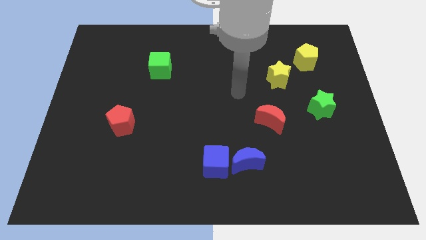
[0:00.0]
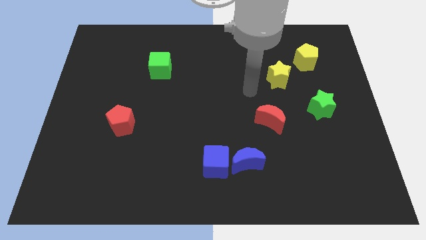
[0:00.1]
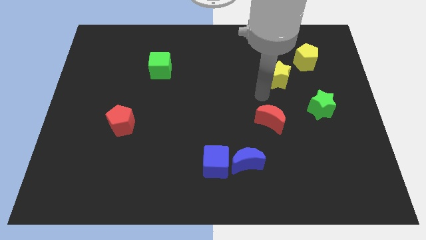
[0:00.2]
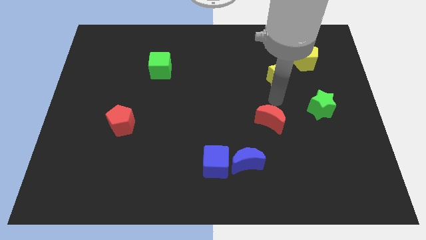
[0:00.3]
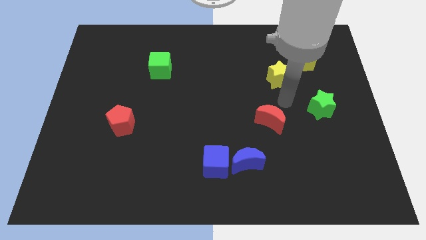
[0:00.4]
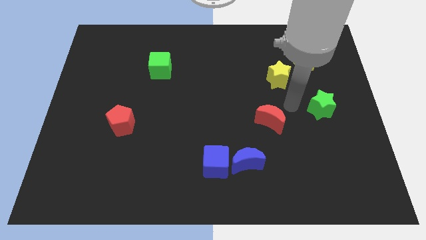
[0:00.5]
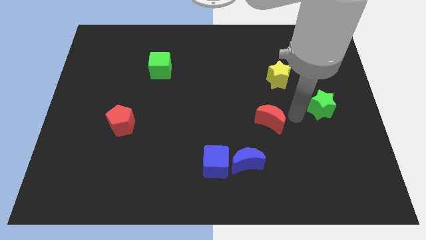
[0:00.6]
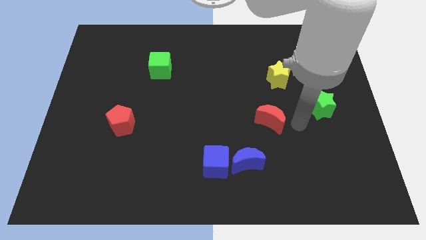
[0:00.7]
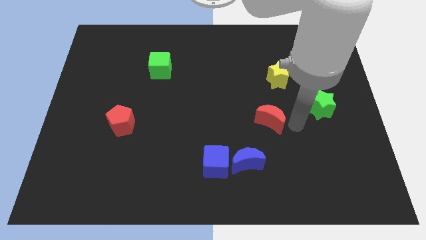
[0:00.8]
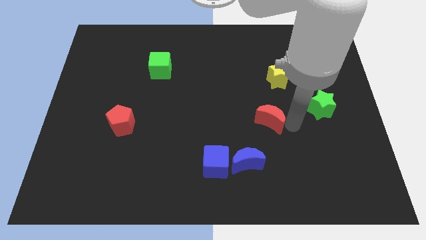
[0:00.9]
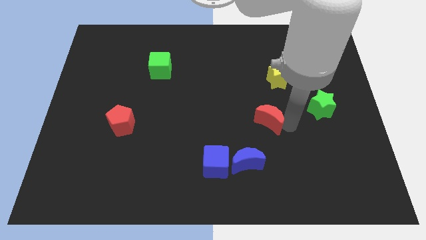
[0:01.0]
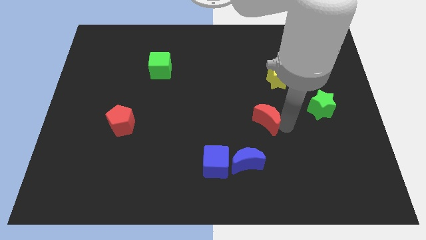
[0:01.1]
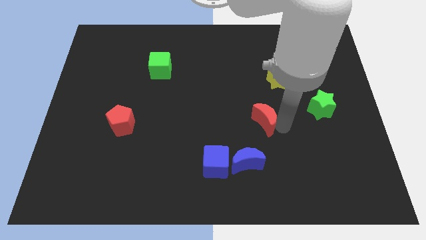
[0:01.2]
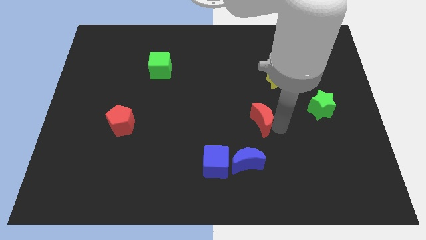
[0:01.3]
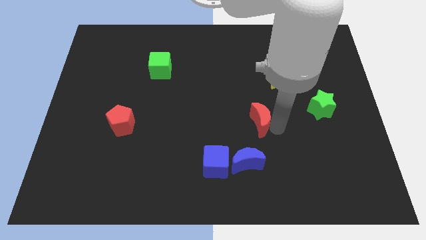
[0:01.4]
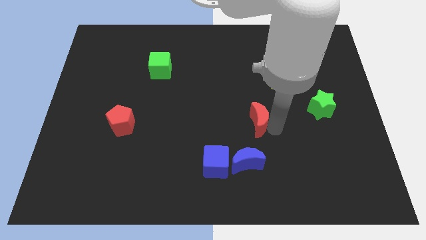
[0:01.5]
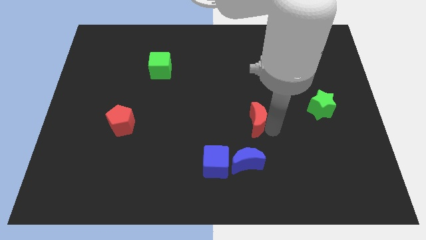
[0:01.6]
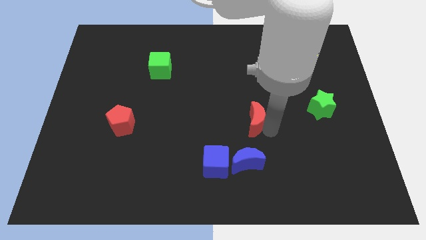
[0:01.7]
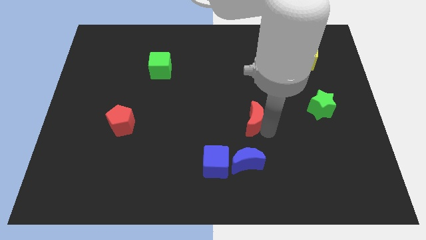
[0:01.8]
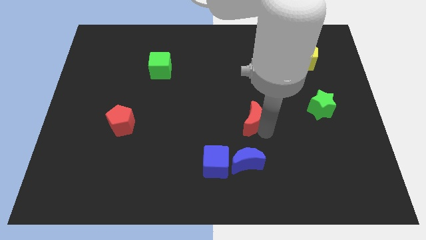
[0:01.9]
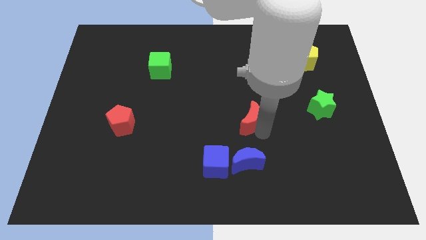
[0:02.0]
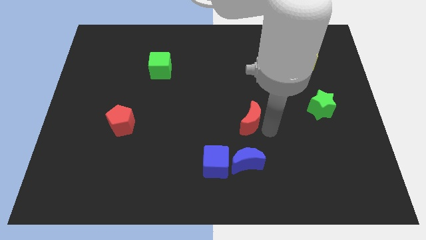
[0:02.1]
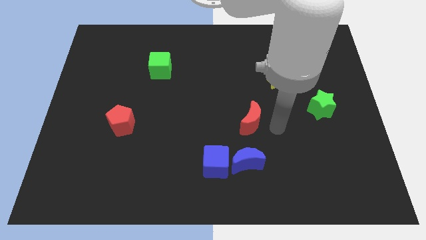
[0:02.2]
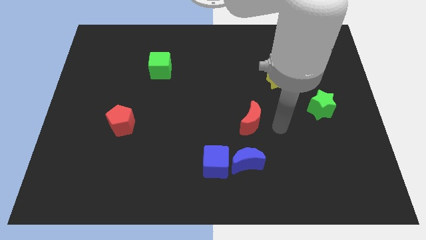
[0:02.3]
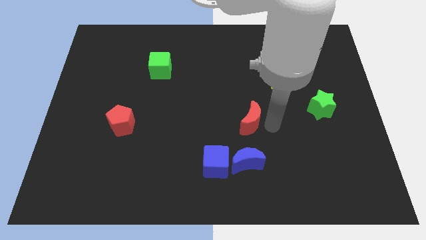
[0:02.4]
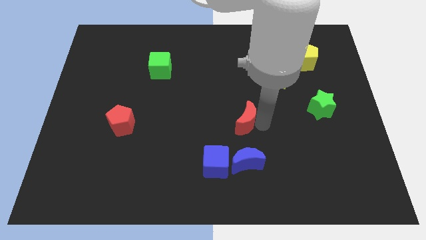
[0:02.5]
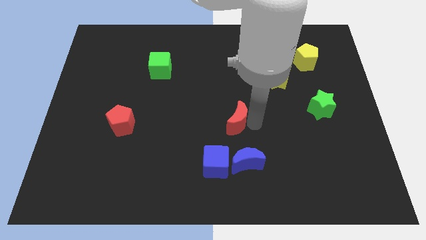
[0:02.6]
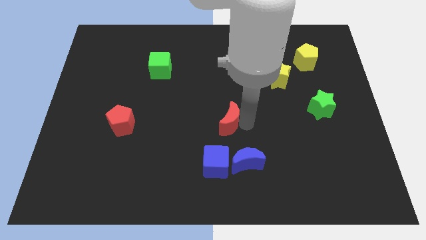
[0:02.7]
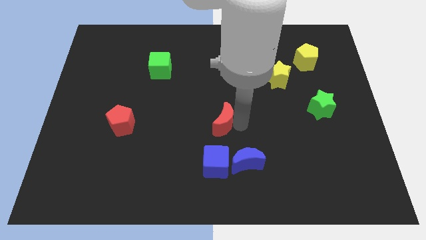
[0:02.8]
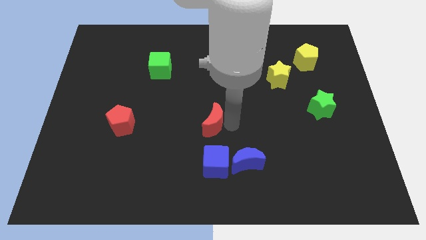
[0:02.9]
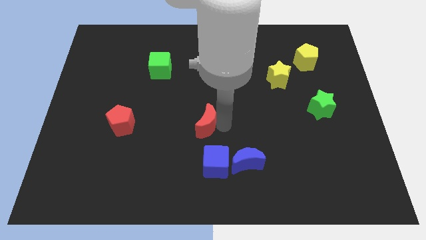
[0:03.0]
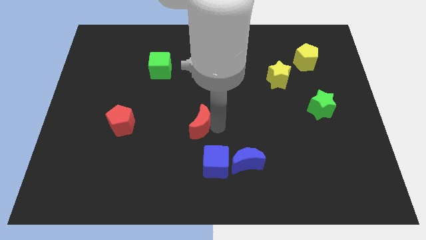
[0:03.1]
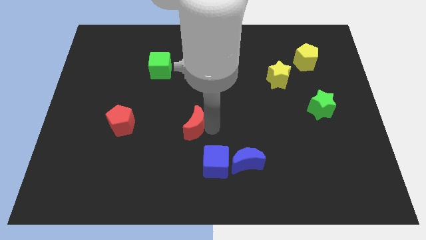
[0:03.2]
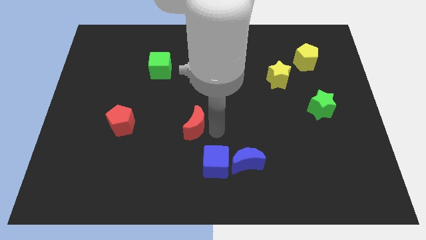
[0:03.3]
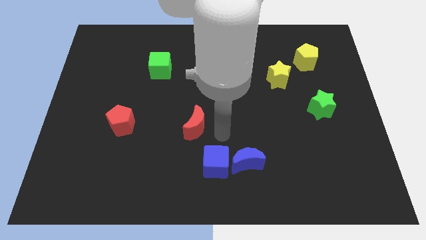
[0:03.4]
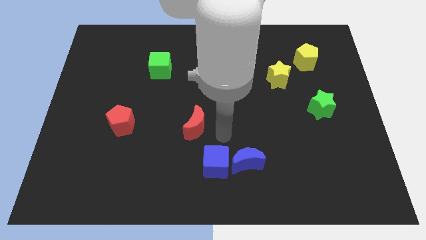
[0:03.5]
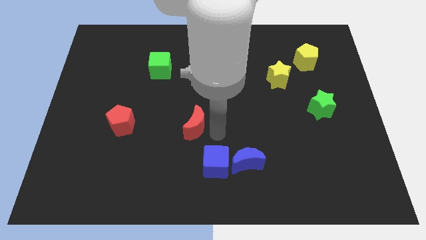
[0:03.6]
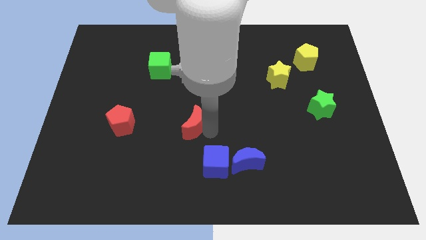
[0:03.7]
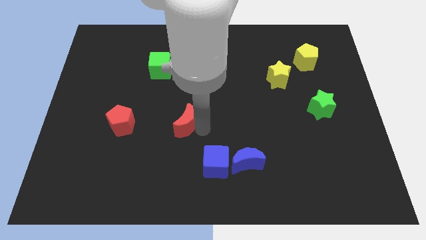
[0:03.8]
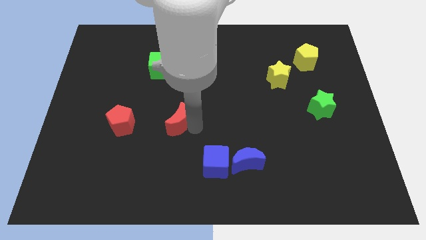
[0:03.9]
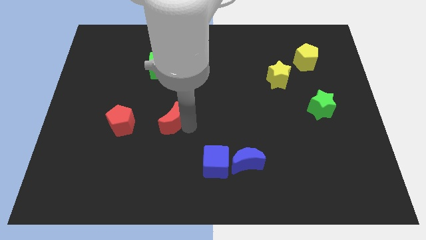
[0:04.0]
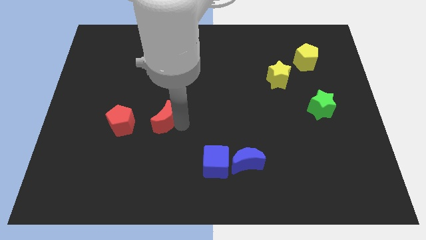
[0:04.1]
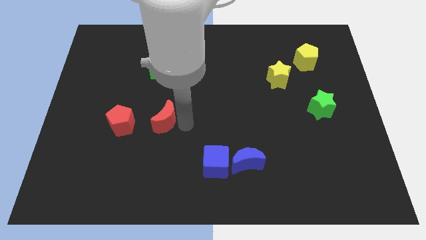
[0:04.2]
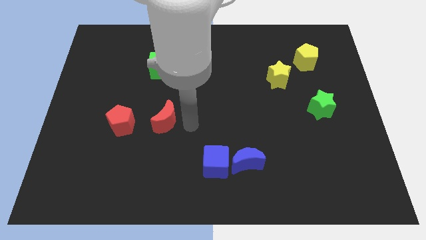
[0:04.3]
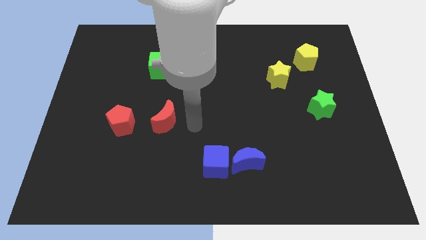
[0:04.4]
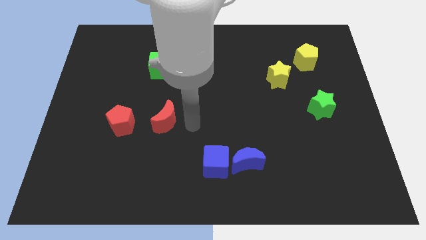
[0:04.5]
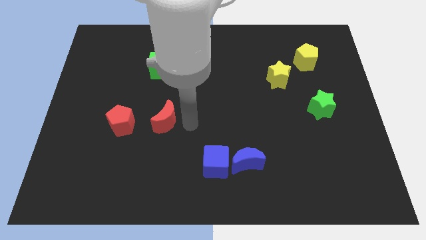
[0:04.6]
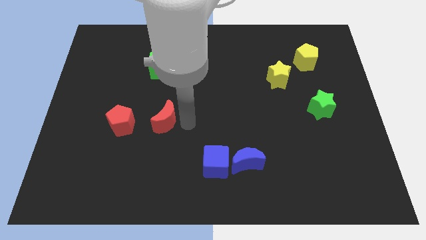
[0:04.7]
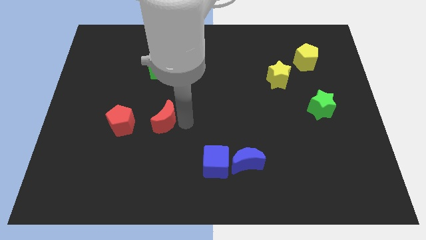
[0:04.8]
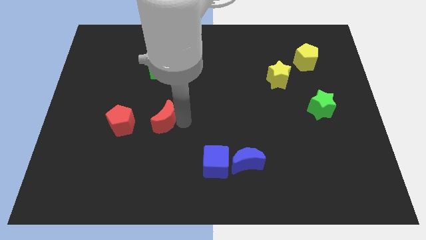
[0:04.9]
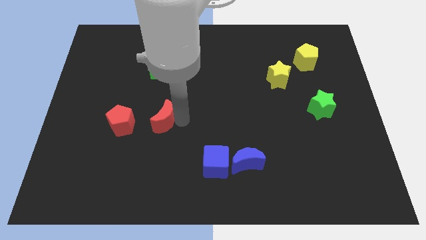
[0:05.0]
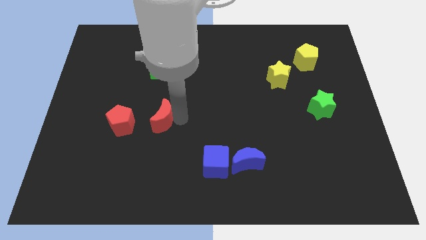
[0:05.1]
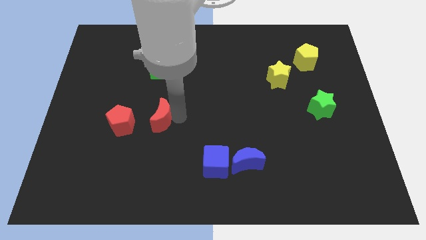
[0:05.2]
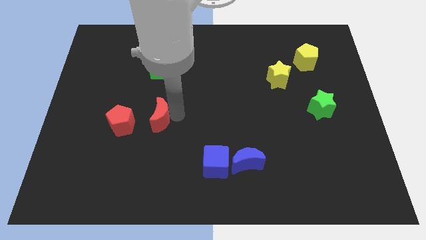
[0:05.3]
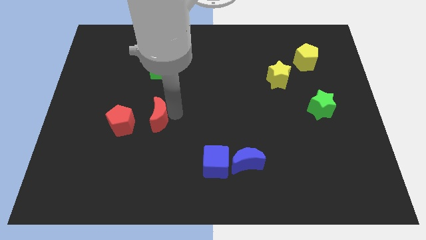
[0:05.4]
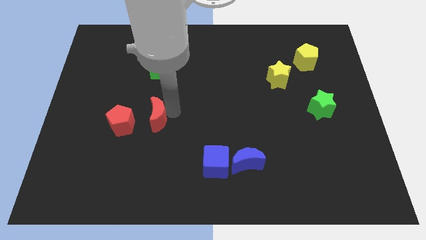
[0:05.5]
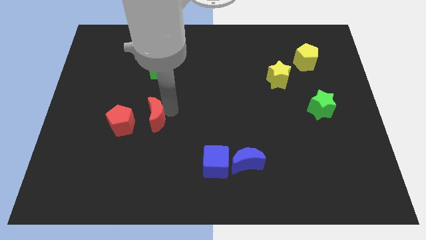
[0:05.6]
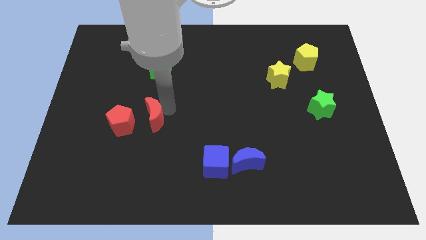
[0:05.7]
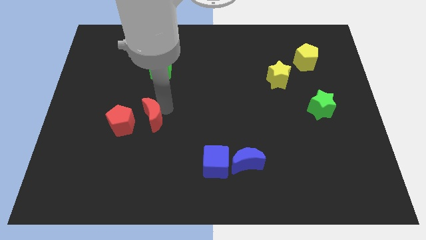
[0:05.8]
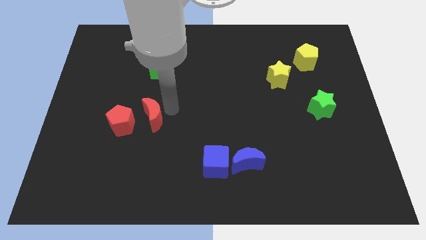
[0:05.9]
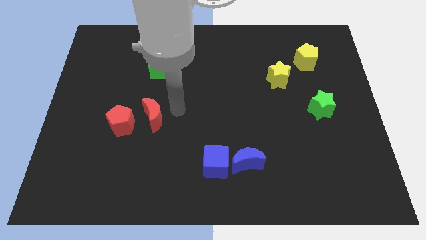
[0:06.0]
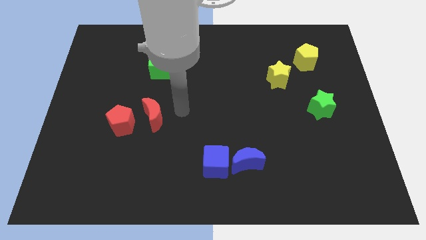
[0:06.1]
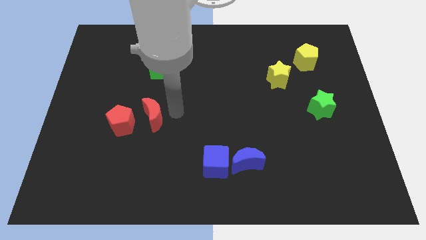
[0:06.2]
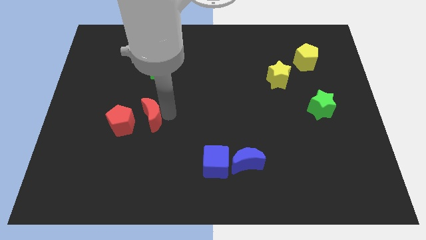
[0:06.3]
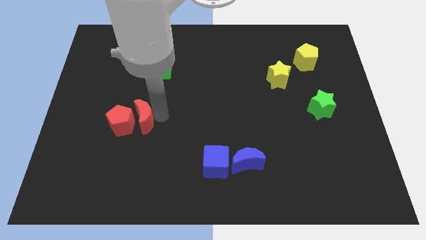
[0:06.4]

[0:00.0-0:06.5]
push the red moon close to the red pentagon

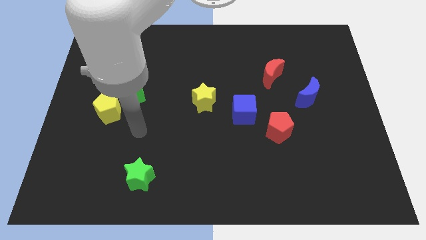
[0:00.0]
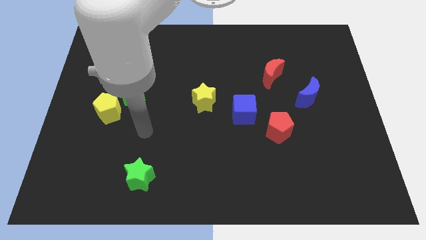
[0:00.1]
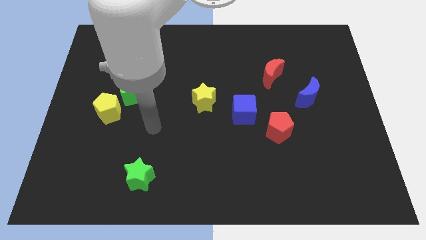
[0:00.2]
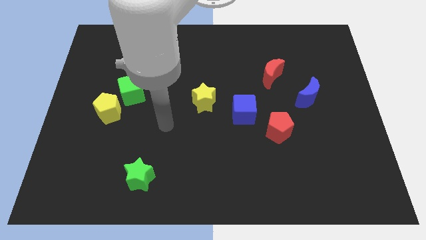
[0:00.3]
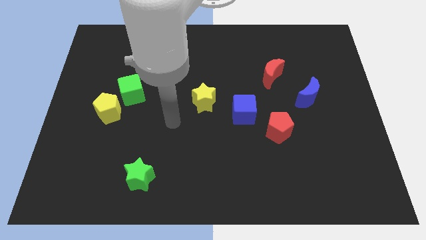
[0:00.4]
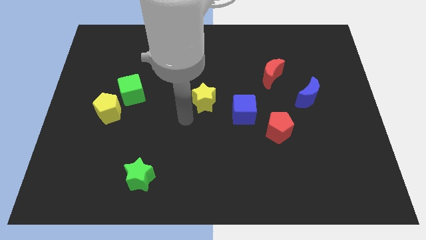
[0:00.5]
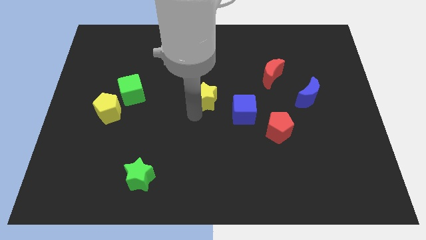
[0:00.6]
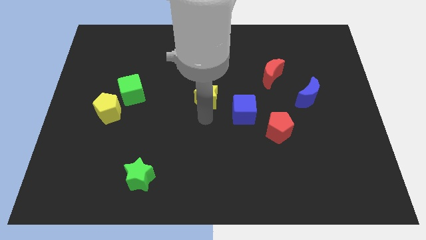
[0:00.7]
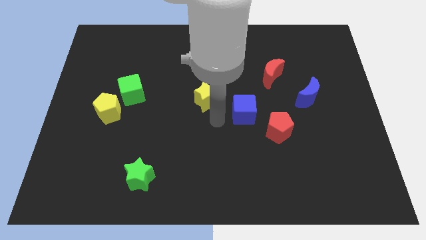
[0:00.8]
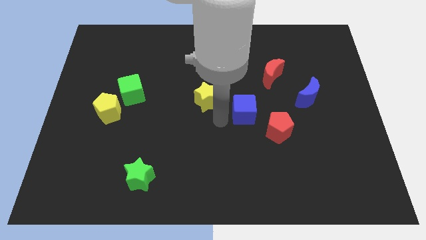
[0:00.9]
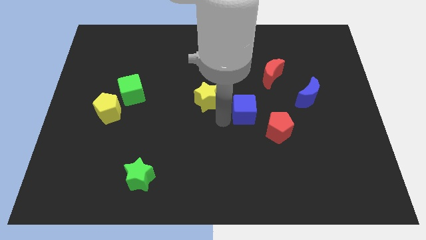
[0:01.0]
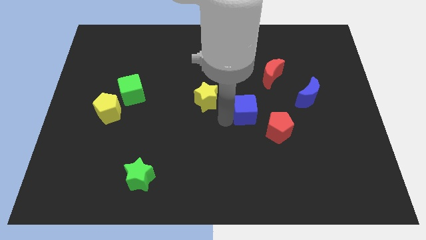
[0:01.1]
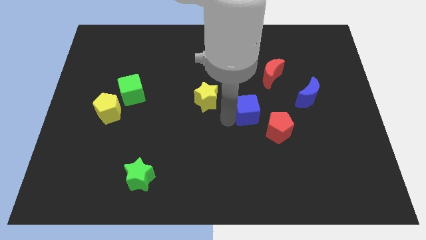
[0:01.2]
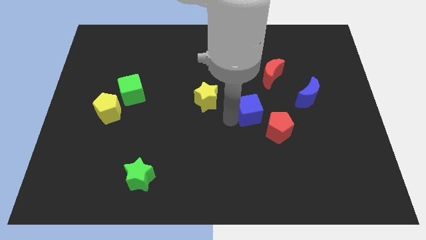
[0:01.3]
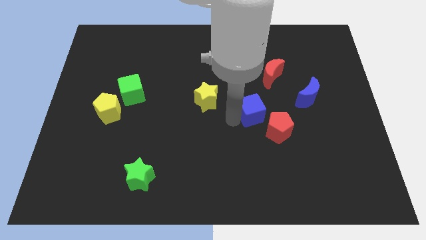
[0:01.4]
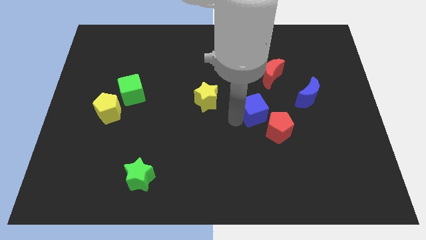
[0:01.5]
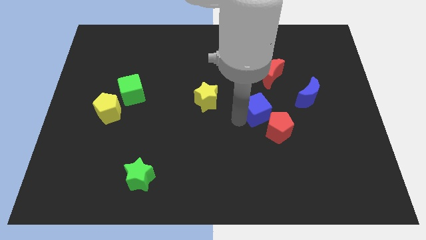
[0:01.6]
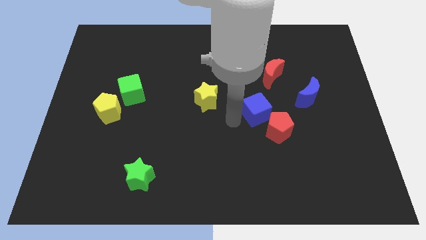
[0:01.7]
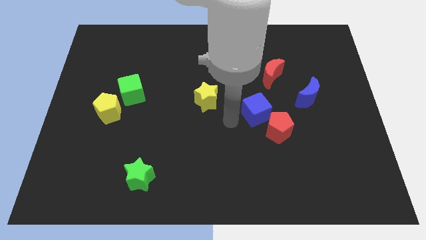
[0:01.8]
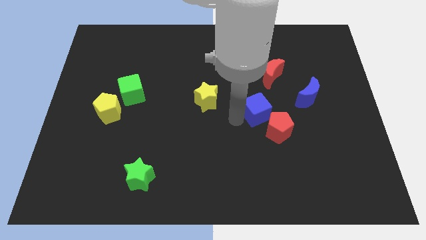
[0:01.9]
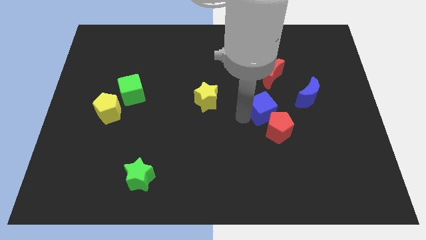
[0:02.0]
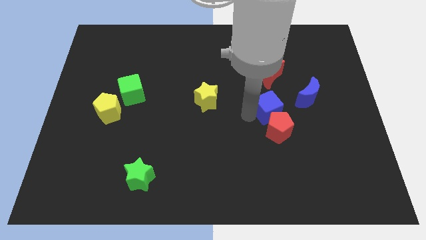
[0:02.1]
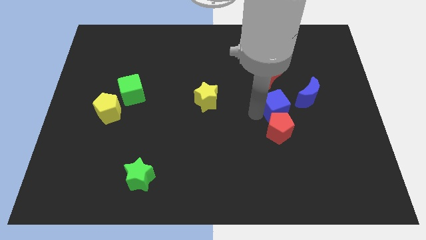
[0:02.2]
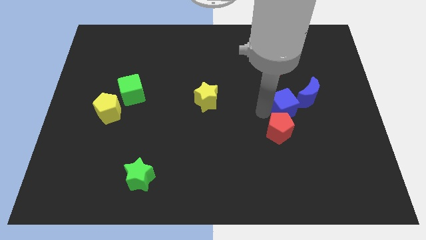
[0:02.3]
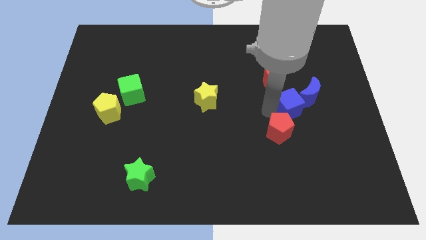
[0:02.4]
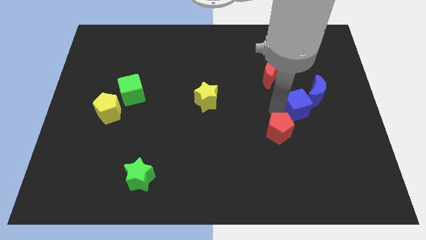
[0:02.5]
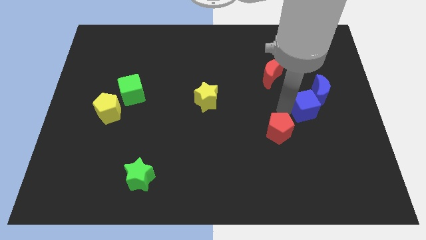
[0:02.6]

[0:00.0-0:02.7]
push the blue cube close to the blue moon
